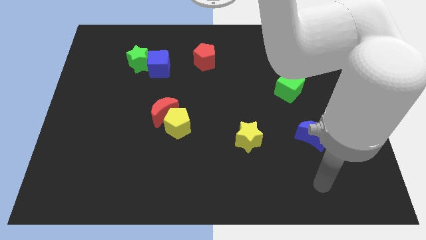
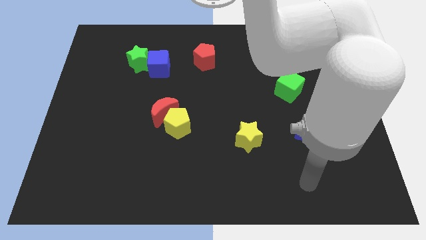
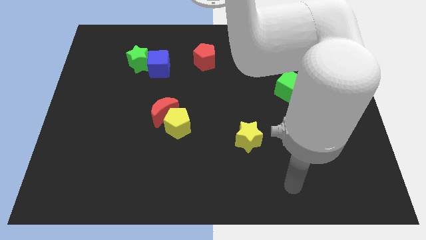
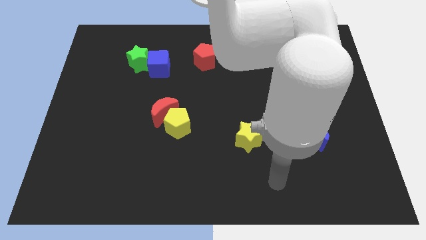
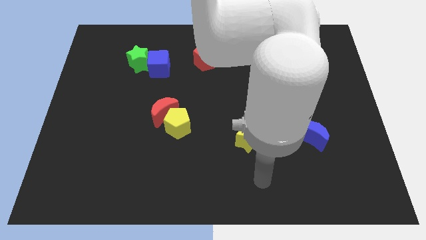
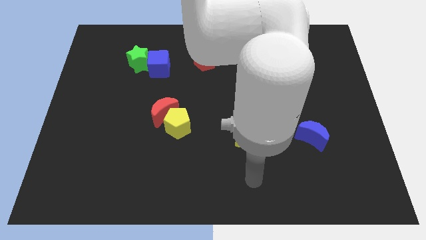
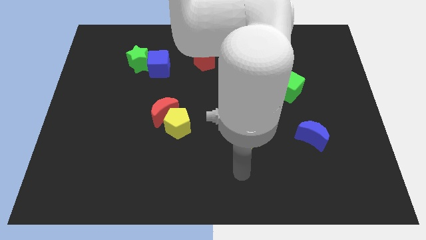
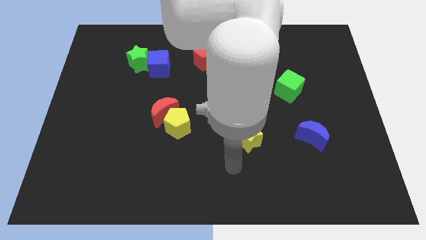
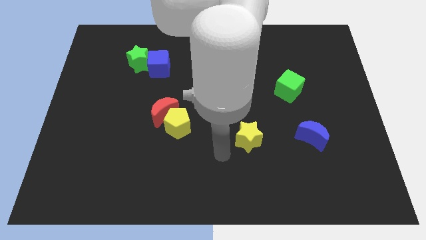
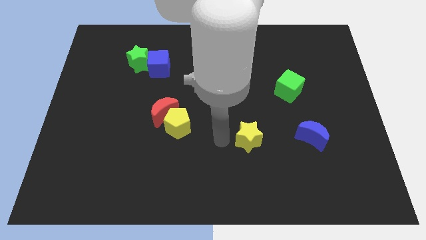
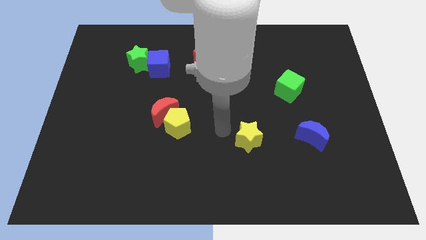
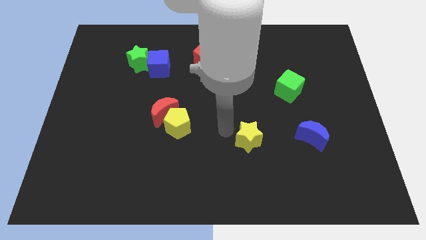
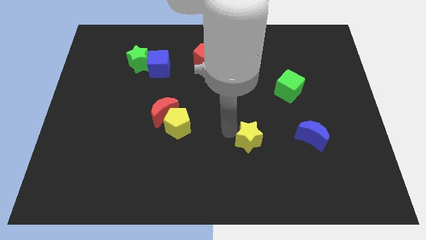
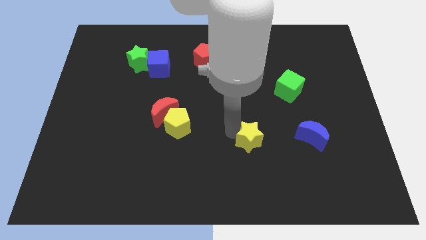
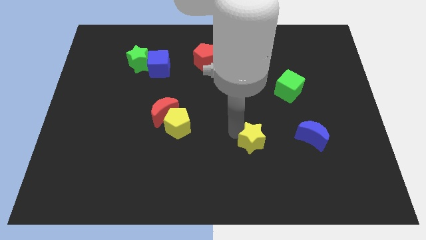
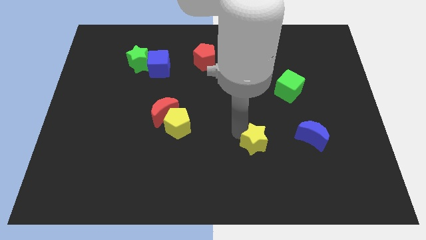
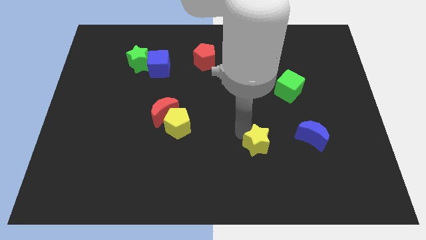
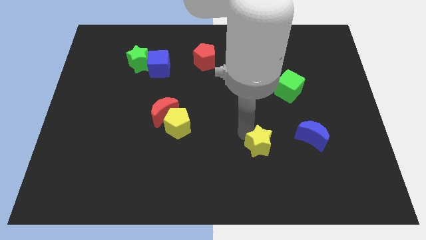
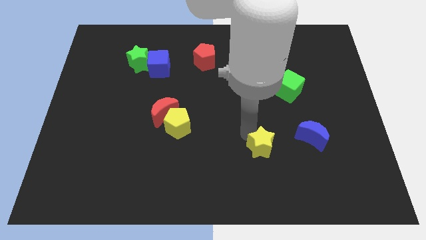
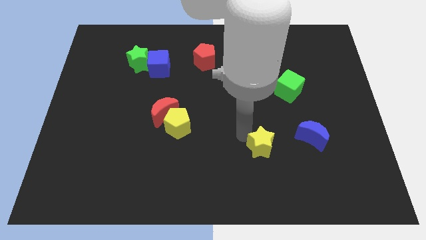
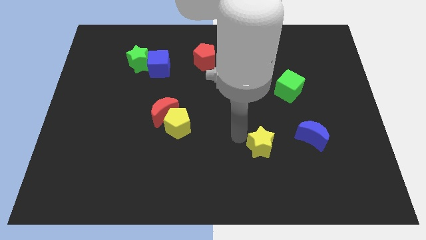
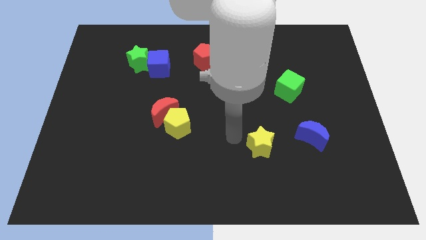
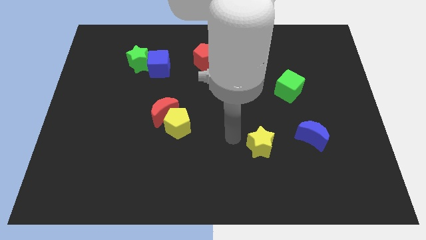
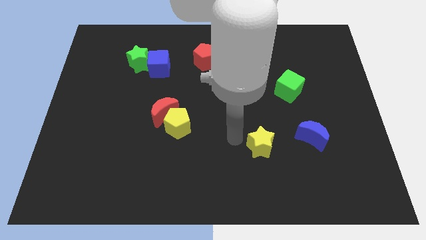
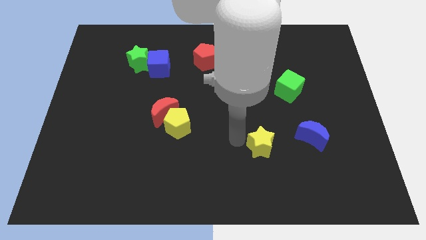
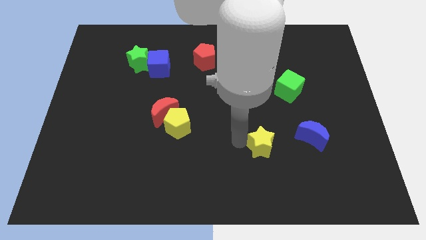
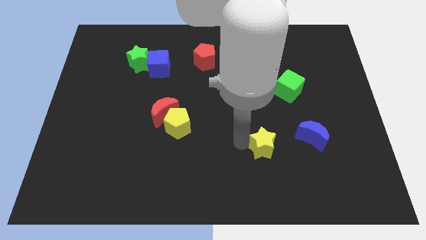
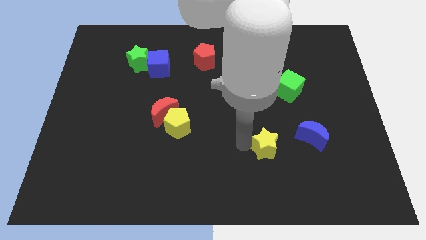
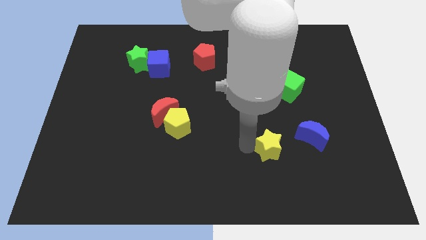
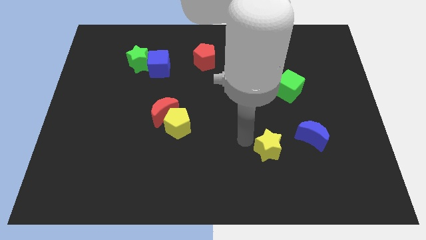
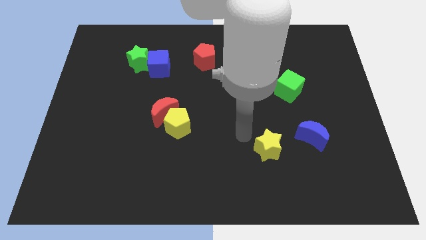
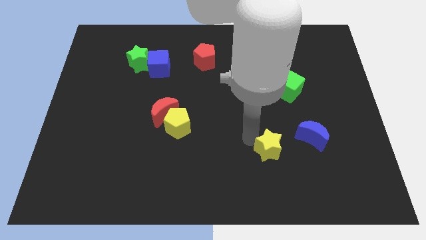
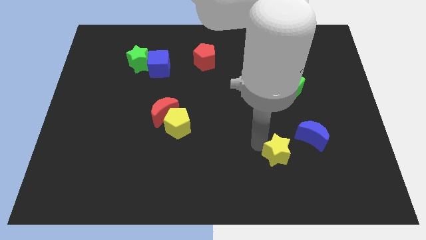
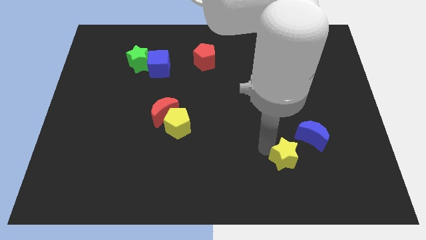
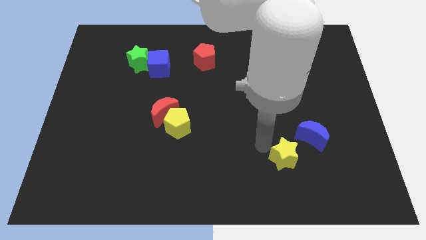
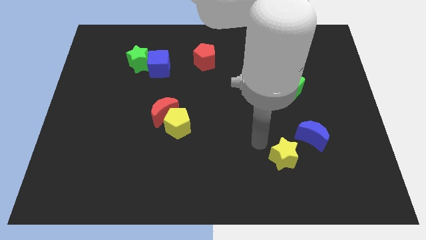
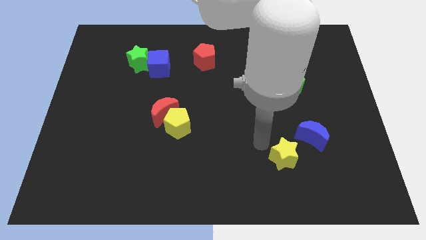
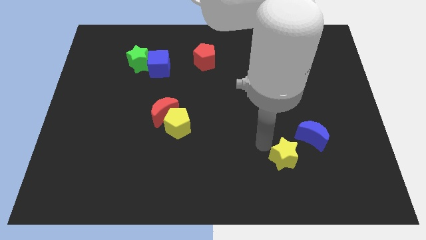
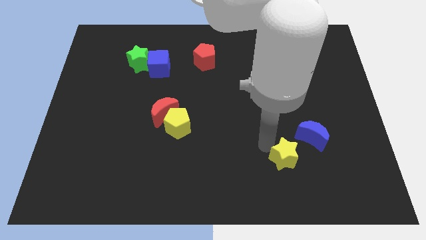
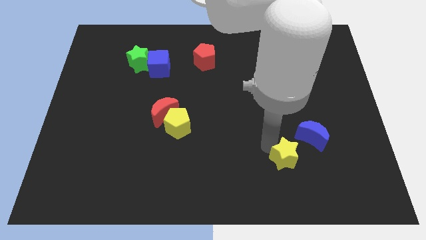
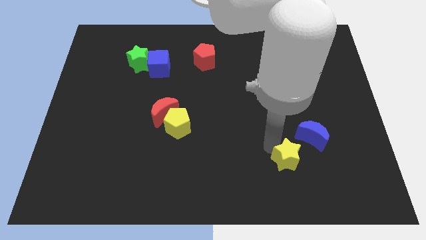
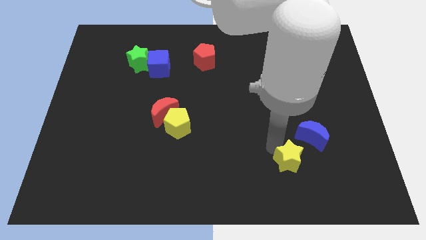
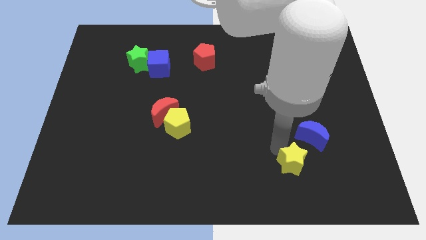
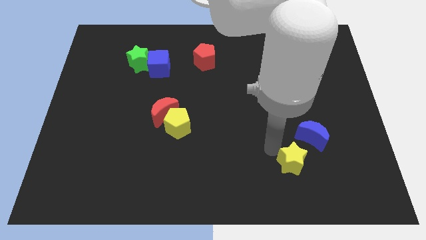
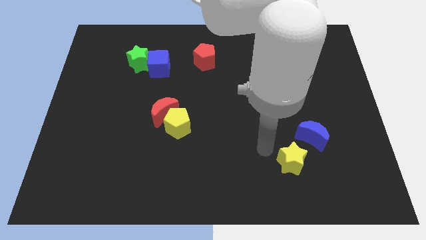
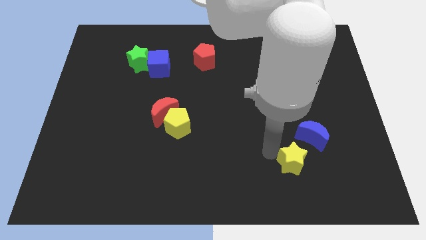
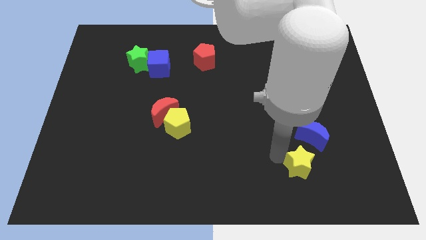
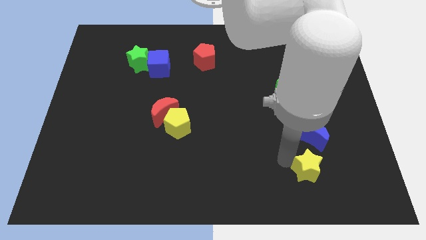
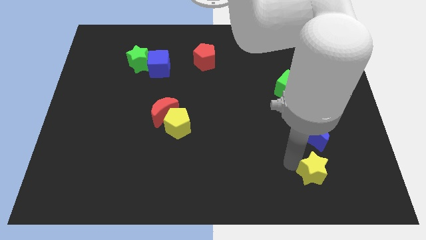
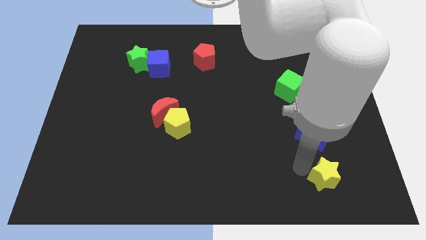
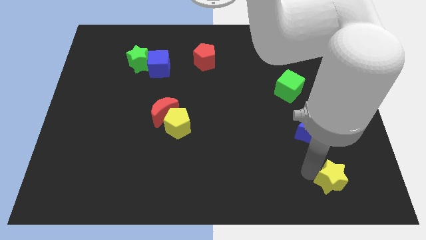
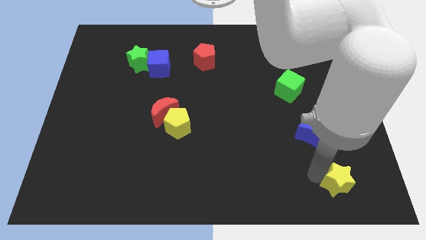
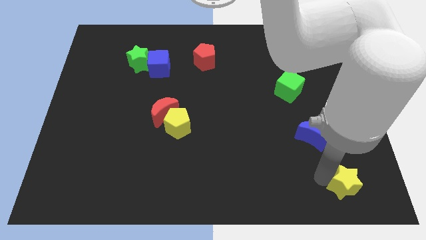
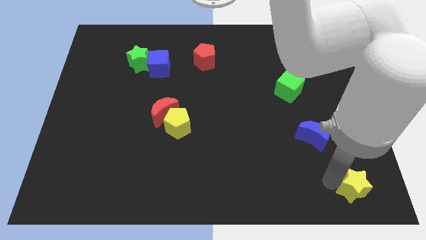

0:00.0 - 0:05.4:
move the yellow star to the lower right corner

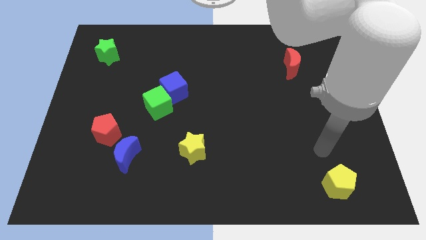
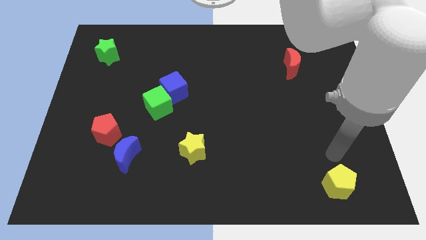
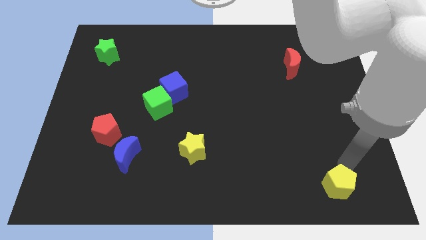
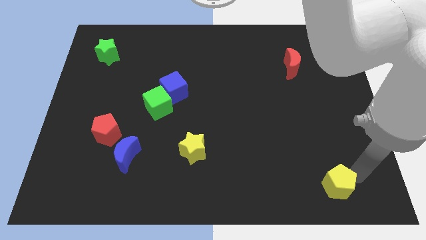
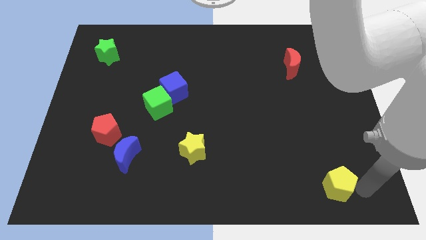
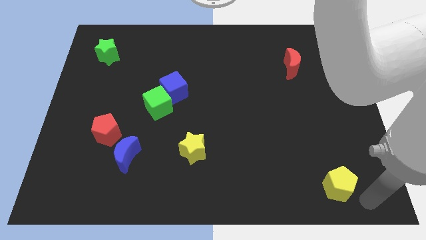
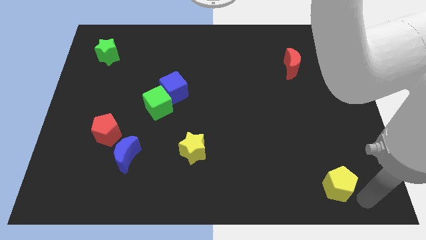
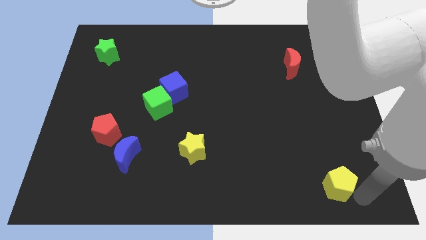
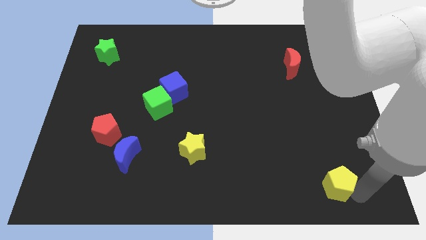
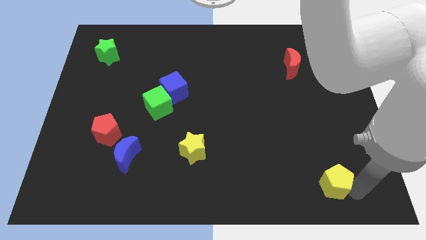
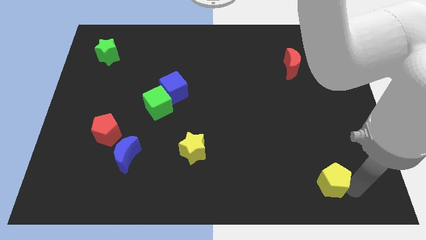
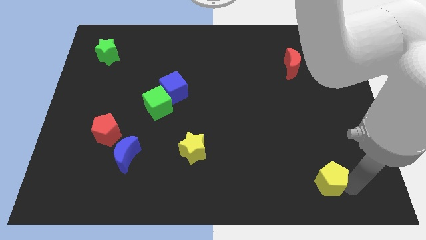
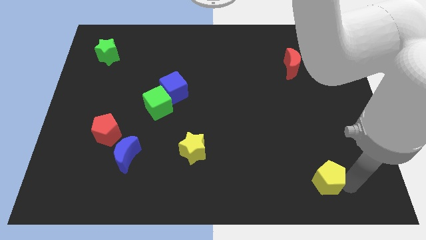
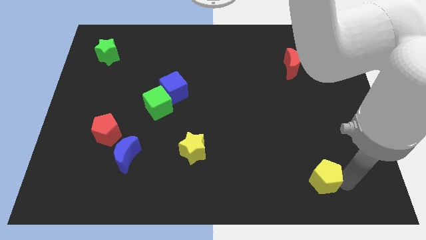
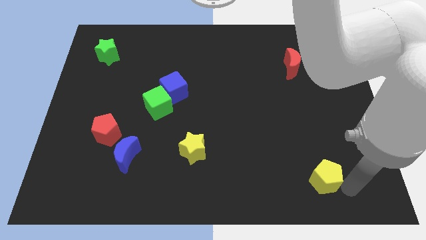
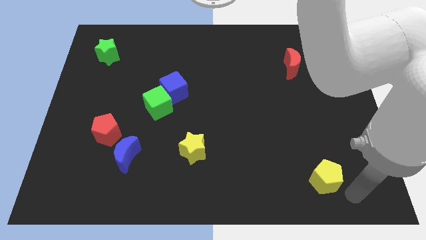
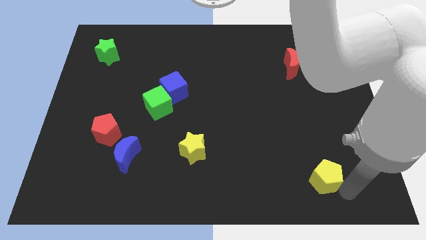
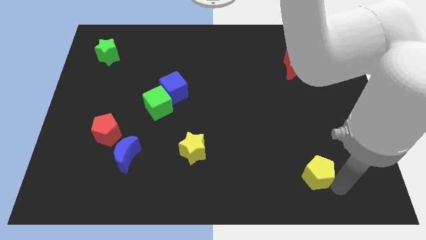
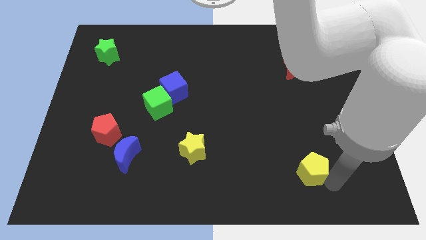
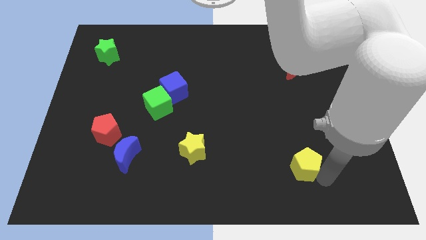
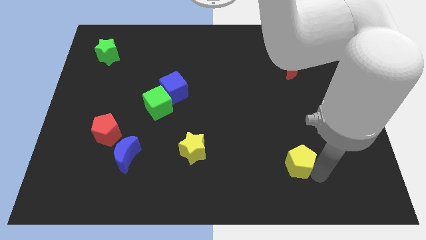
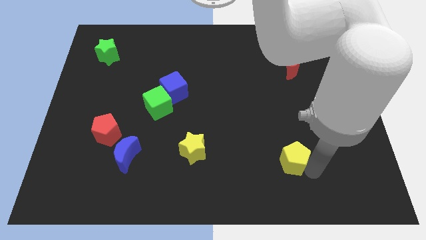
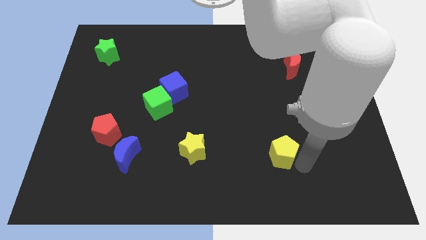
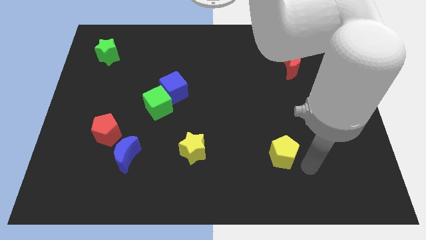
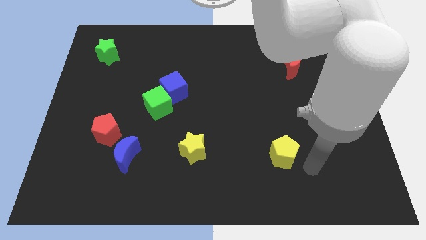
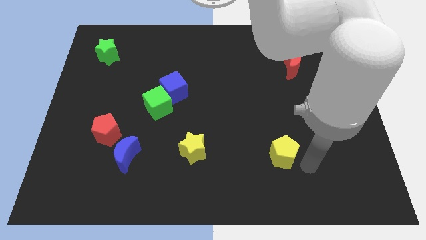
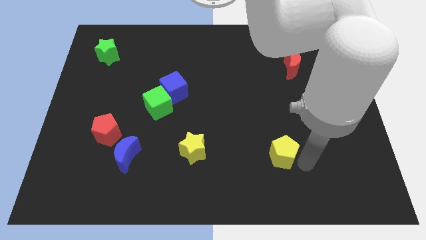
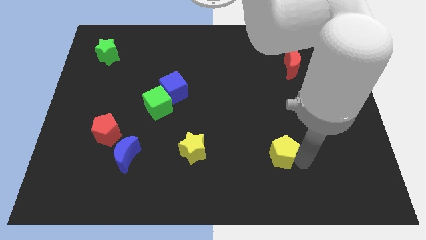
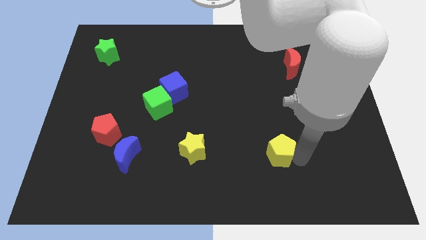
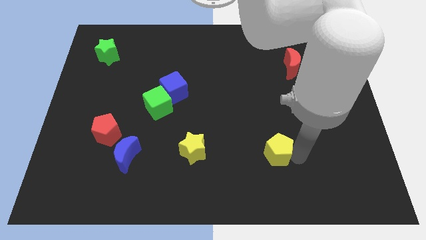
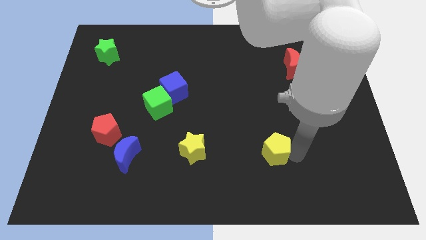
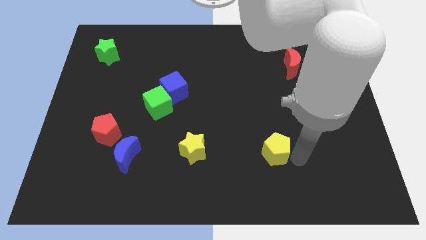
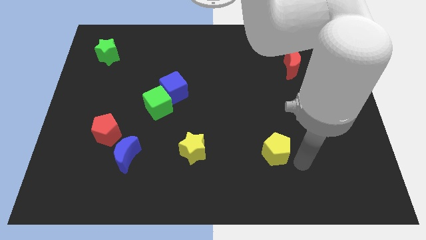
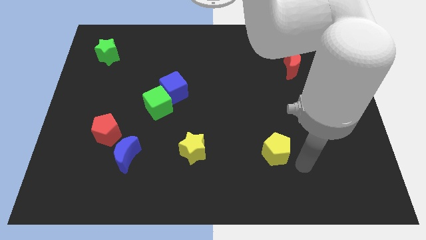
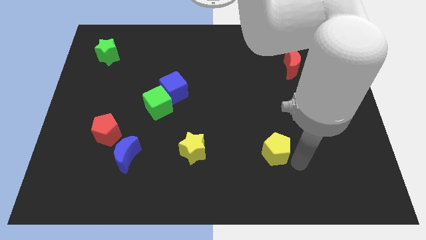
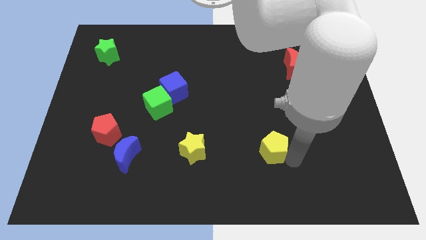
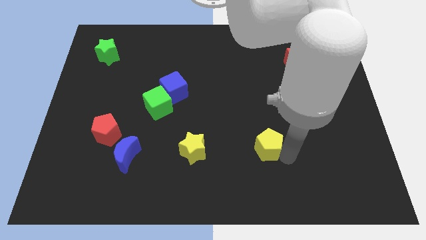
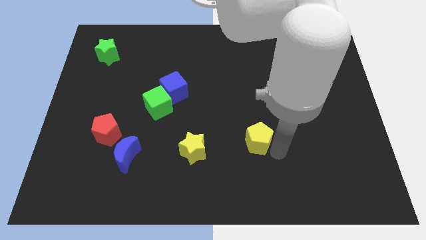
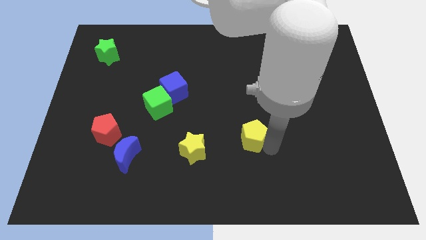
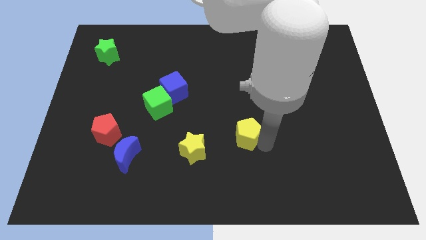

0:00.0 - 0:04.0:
move the yellow pentagon to the center
